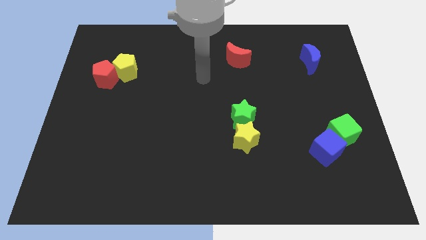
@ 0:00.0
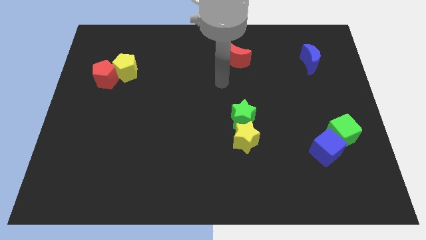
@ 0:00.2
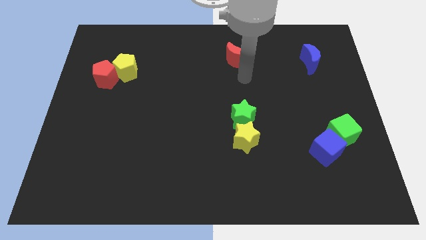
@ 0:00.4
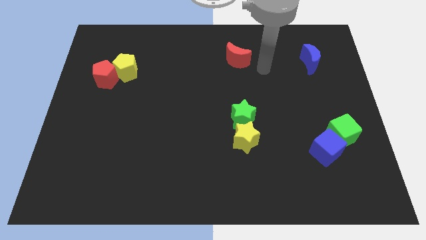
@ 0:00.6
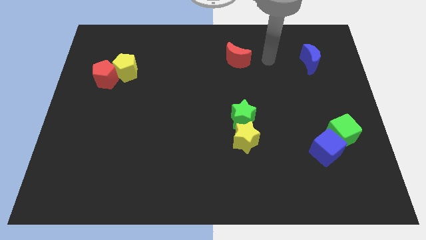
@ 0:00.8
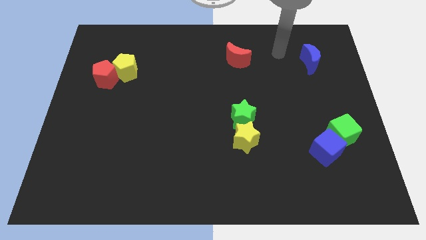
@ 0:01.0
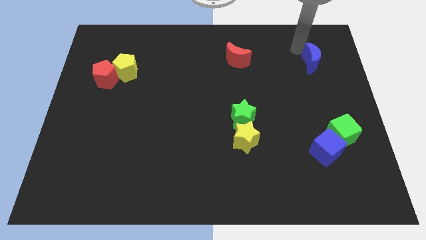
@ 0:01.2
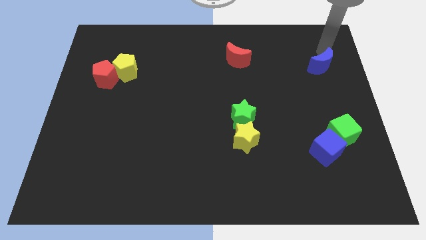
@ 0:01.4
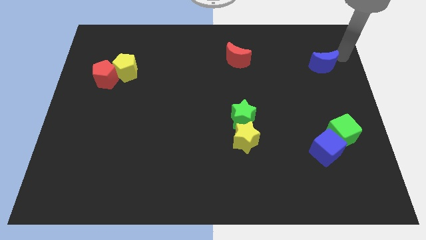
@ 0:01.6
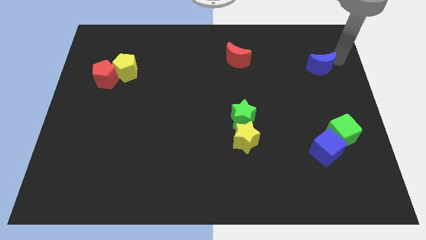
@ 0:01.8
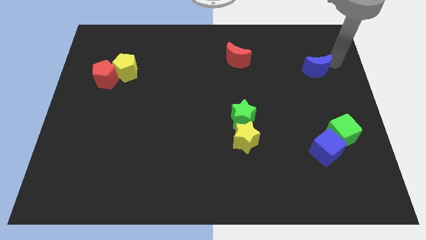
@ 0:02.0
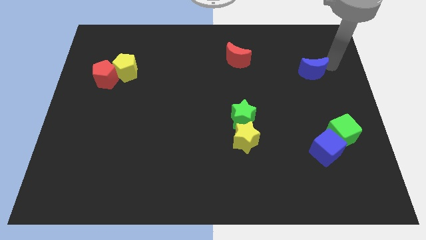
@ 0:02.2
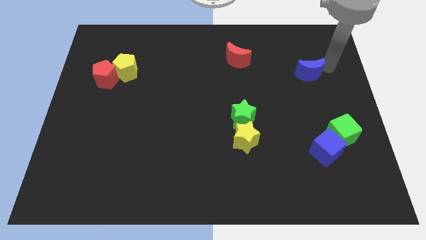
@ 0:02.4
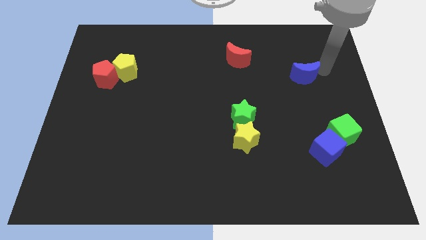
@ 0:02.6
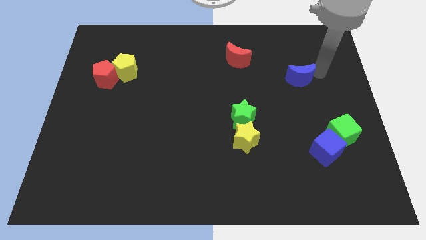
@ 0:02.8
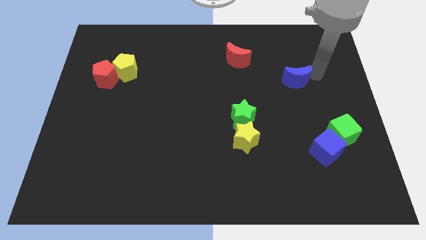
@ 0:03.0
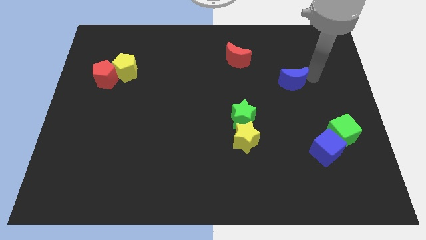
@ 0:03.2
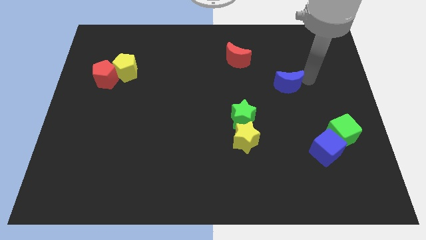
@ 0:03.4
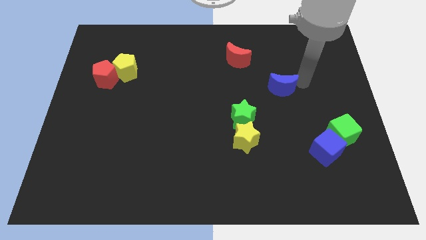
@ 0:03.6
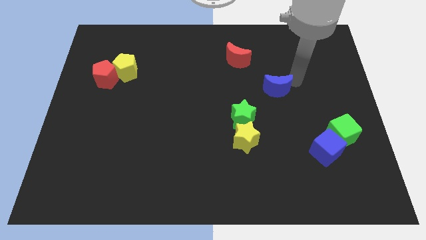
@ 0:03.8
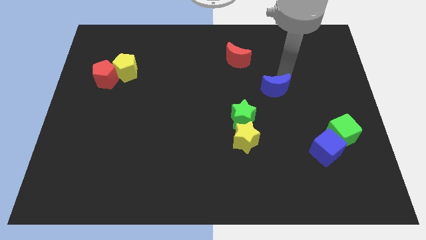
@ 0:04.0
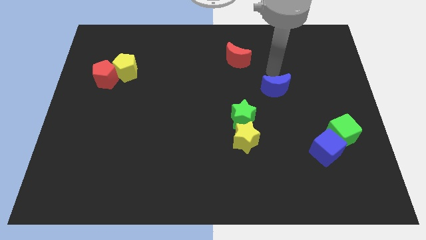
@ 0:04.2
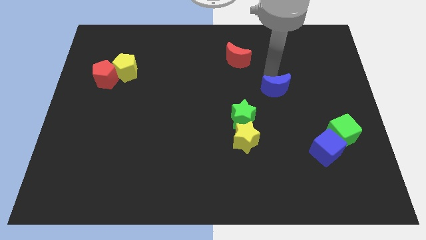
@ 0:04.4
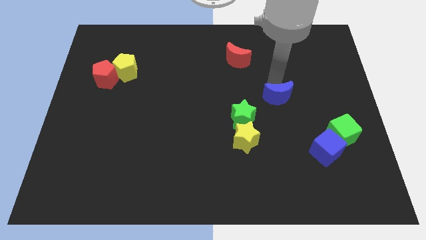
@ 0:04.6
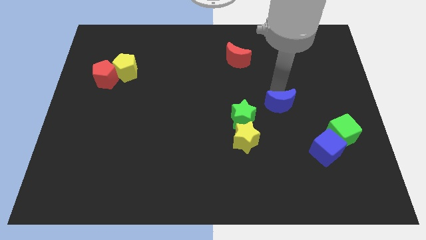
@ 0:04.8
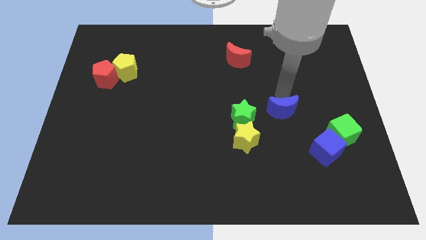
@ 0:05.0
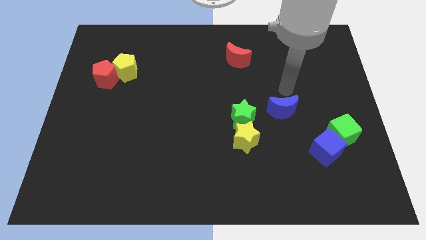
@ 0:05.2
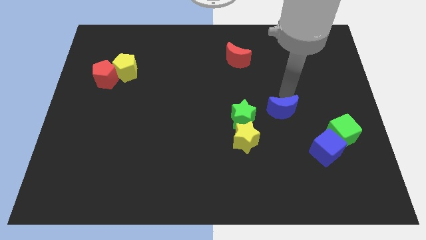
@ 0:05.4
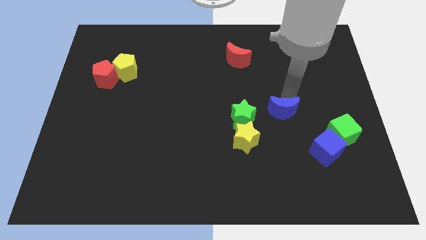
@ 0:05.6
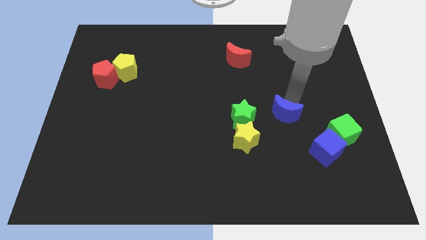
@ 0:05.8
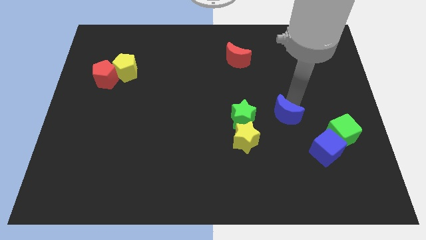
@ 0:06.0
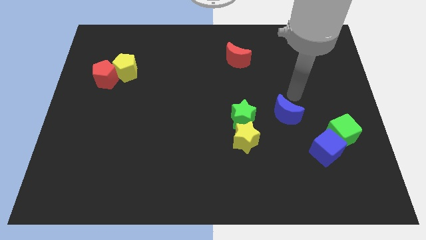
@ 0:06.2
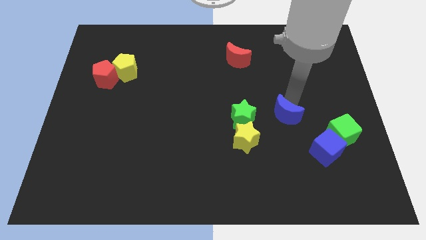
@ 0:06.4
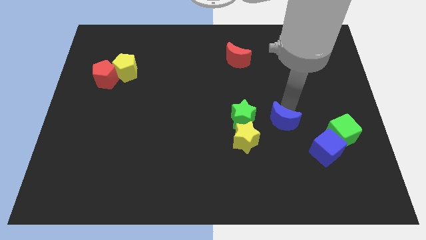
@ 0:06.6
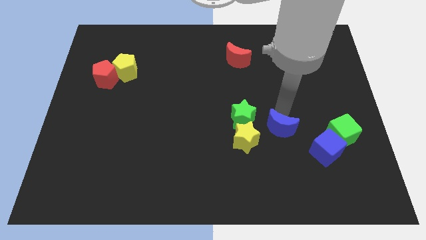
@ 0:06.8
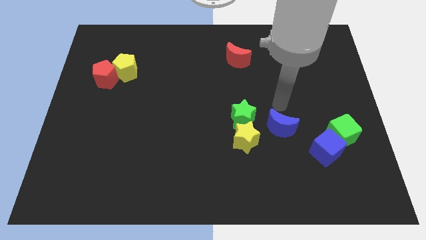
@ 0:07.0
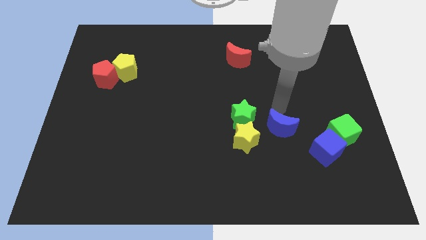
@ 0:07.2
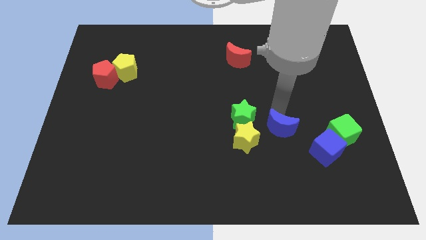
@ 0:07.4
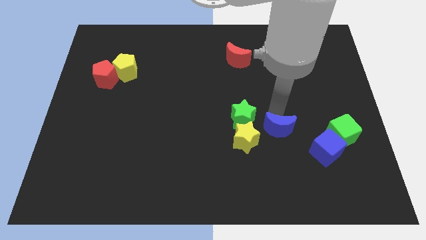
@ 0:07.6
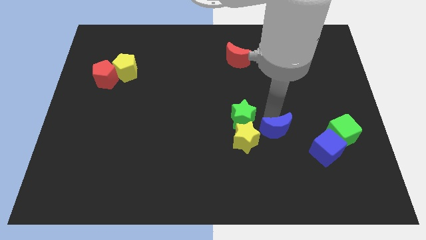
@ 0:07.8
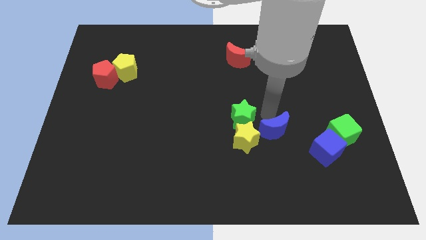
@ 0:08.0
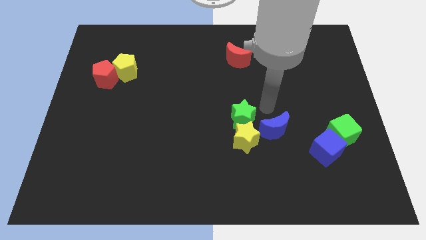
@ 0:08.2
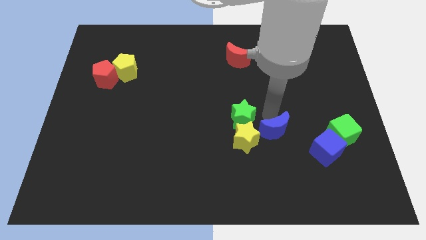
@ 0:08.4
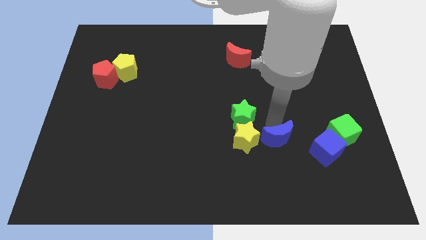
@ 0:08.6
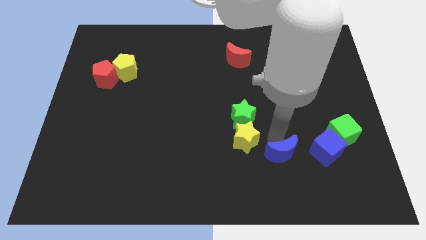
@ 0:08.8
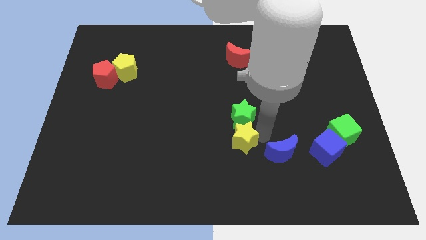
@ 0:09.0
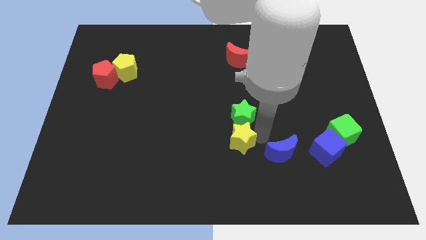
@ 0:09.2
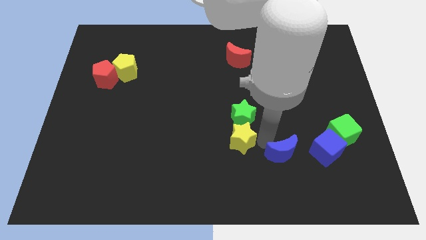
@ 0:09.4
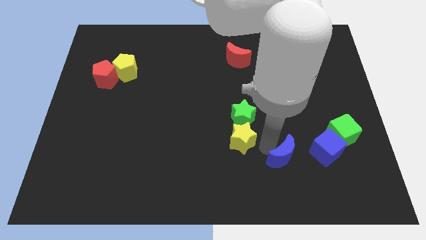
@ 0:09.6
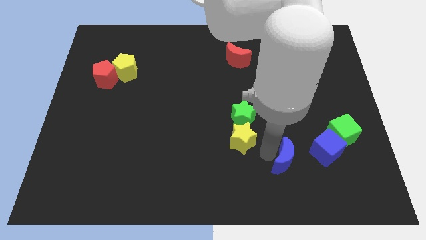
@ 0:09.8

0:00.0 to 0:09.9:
move the blue moon diagonally down and to the left of the blue cube

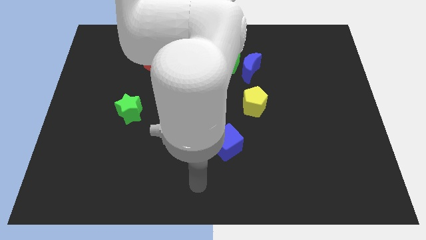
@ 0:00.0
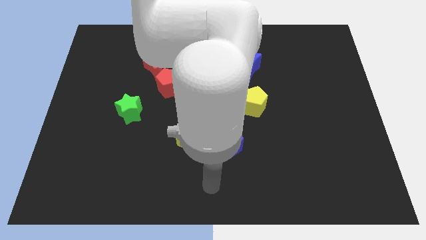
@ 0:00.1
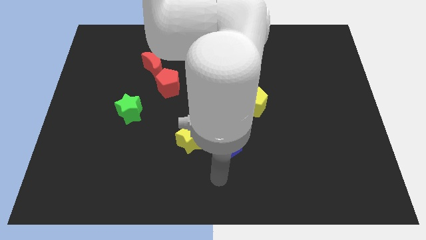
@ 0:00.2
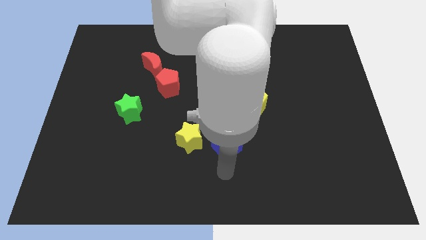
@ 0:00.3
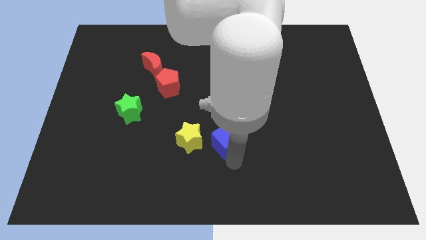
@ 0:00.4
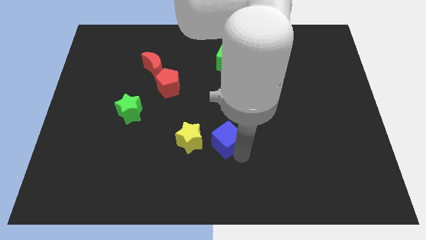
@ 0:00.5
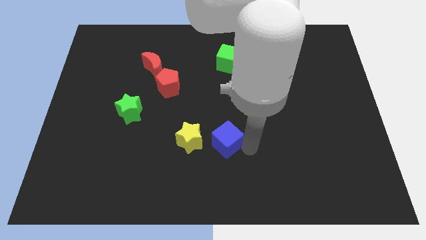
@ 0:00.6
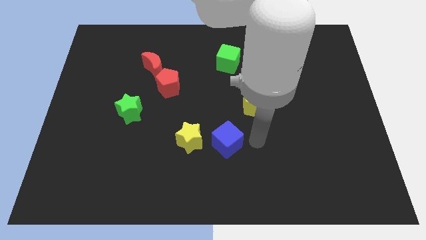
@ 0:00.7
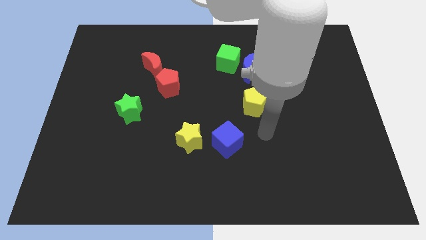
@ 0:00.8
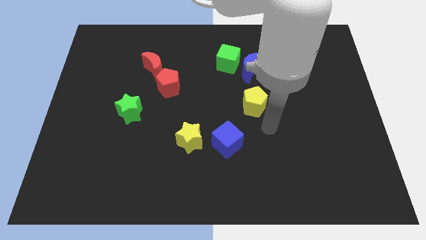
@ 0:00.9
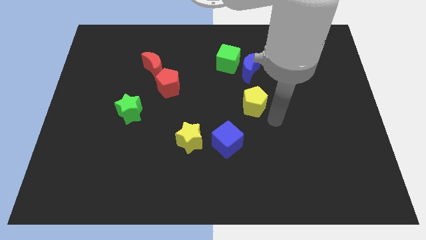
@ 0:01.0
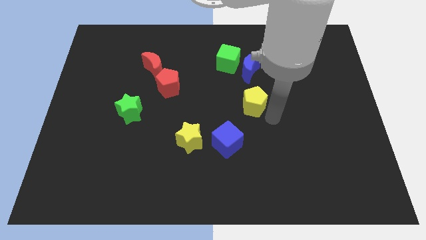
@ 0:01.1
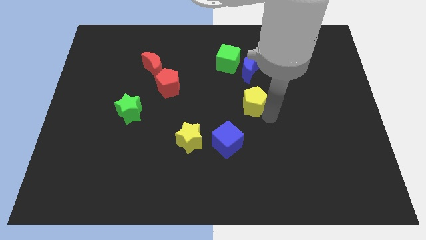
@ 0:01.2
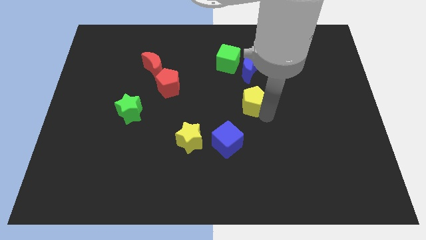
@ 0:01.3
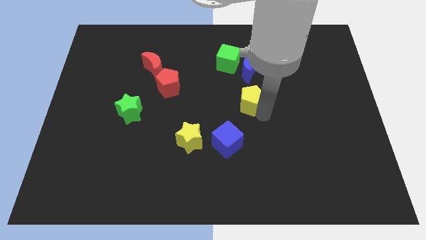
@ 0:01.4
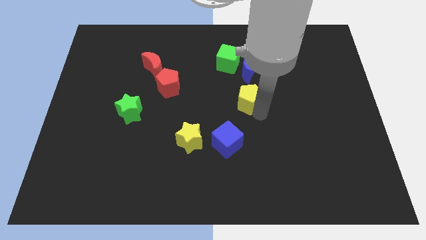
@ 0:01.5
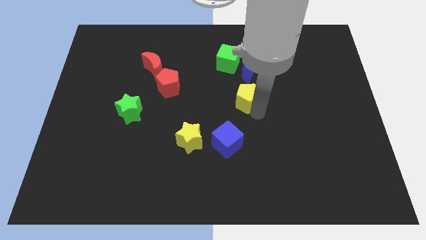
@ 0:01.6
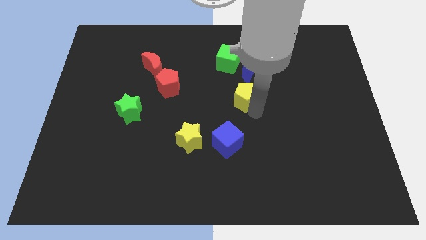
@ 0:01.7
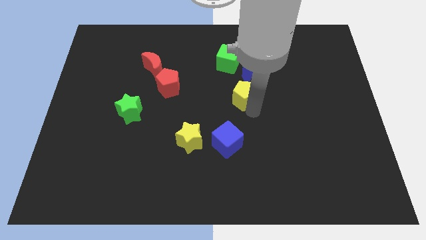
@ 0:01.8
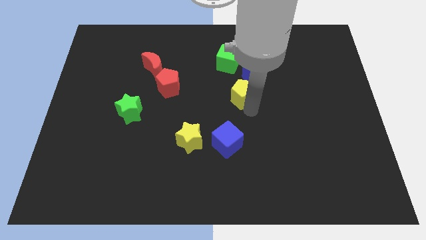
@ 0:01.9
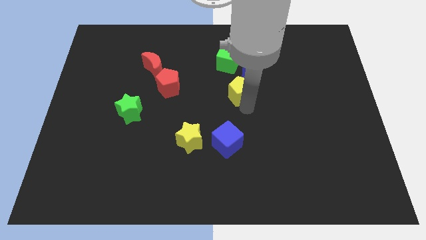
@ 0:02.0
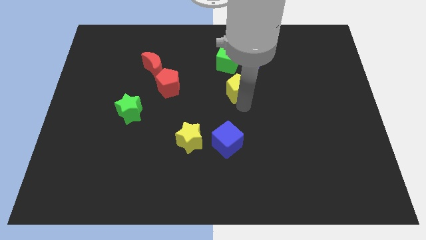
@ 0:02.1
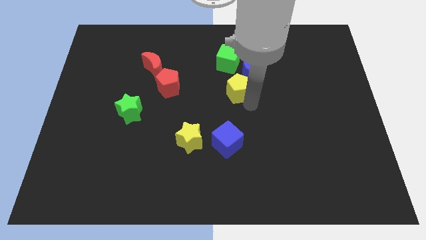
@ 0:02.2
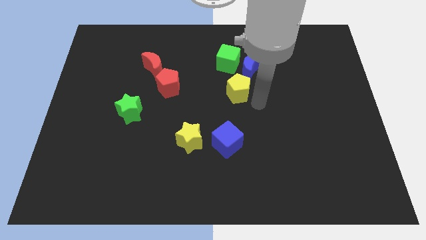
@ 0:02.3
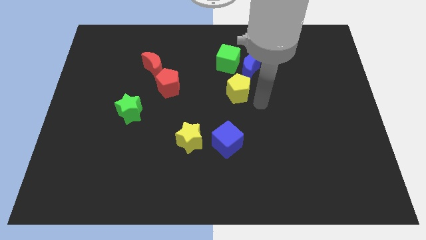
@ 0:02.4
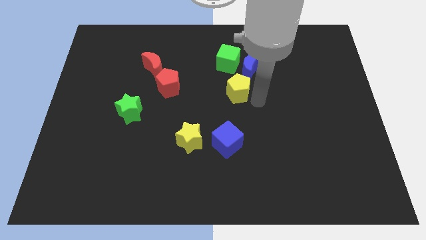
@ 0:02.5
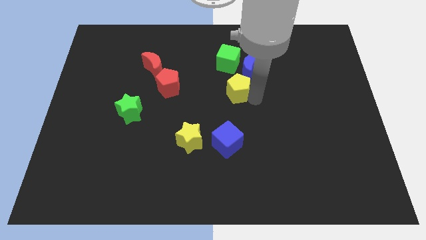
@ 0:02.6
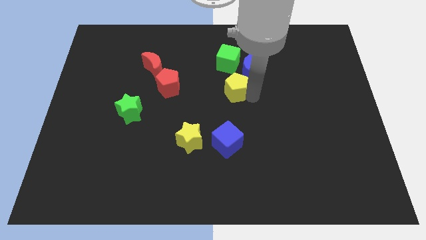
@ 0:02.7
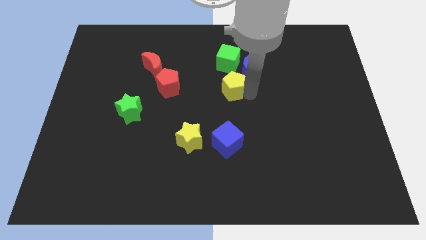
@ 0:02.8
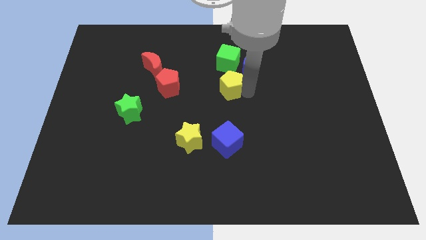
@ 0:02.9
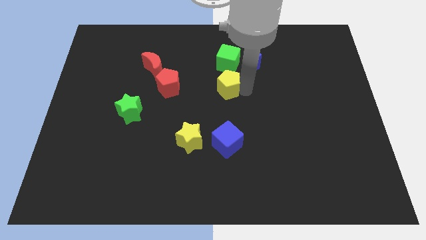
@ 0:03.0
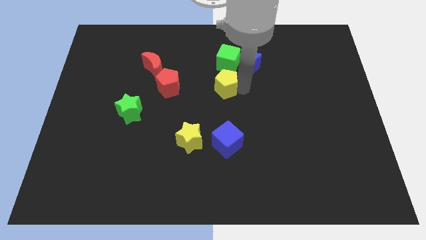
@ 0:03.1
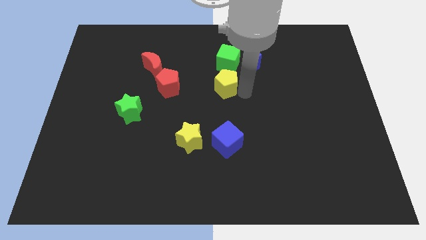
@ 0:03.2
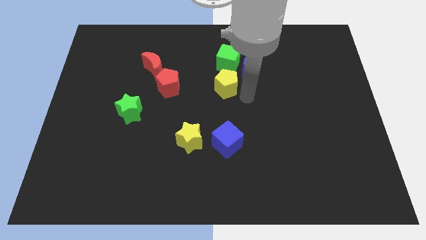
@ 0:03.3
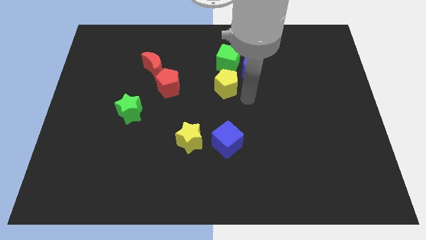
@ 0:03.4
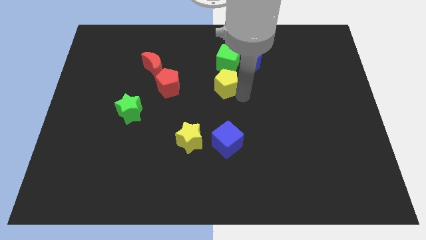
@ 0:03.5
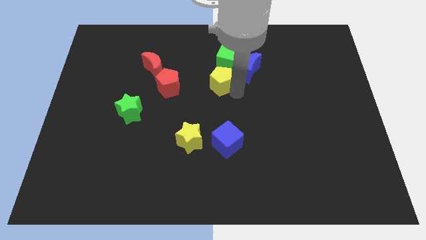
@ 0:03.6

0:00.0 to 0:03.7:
slide the yellow pentagon to the bottom left side of the green cube
